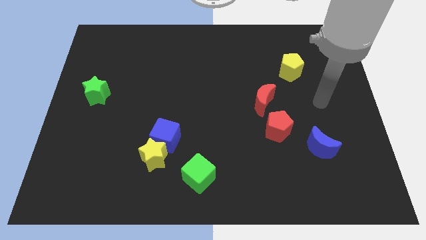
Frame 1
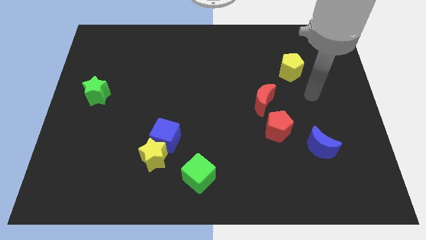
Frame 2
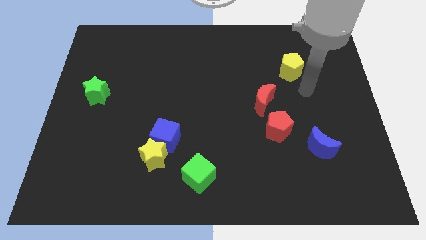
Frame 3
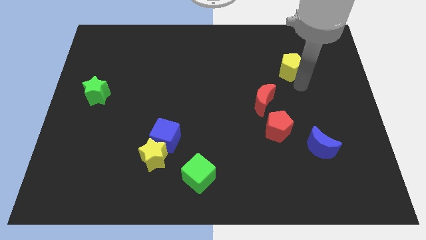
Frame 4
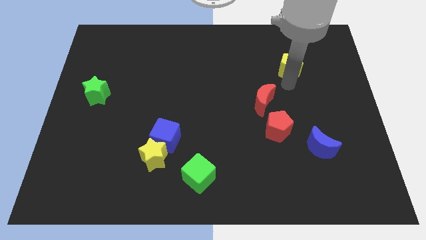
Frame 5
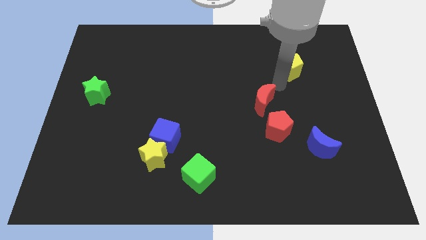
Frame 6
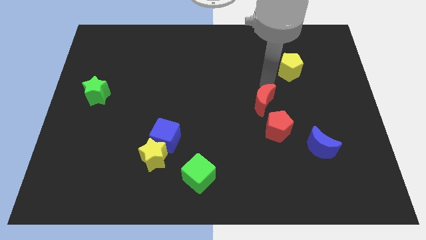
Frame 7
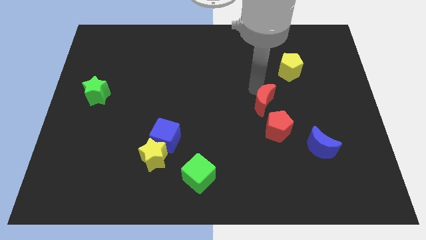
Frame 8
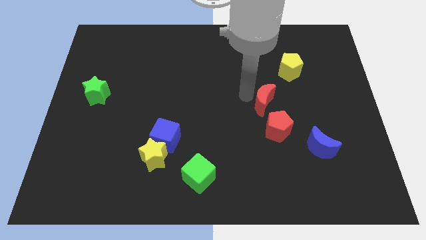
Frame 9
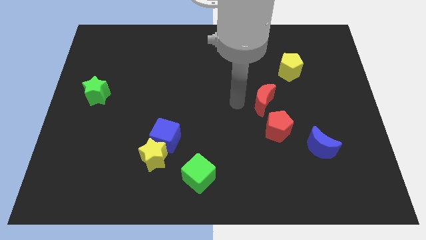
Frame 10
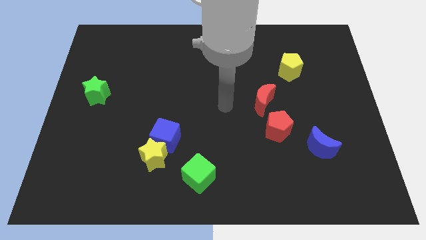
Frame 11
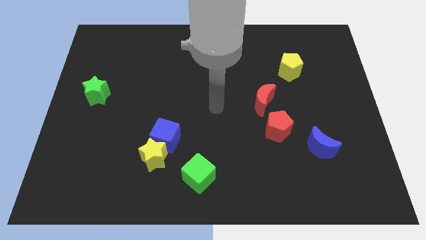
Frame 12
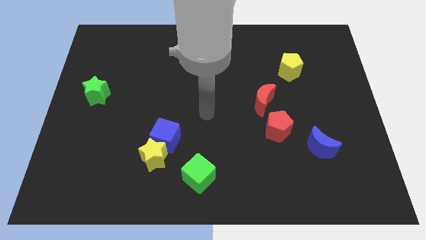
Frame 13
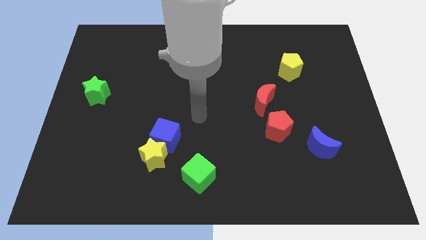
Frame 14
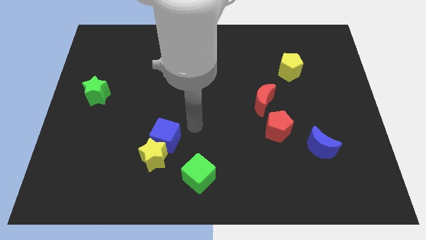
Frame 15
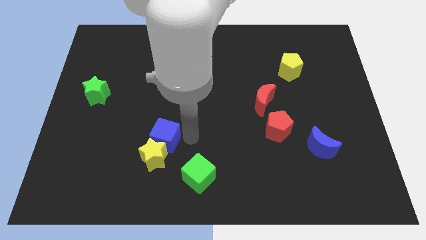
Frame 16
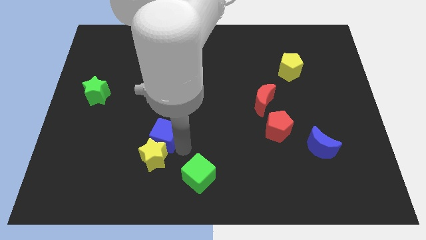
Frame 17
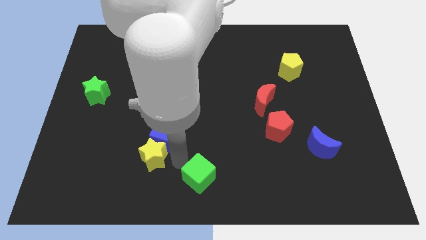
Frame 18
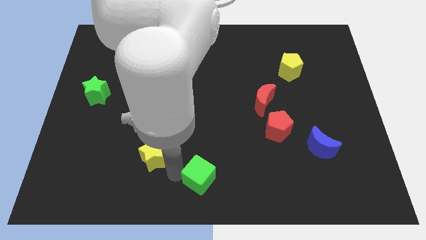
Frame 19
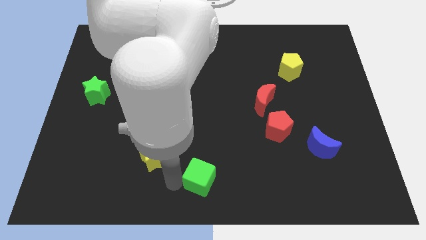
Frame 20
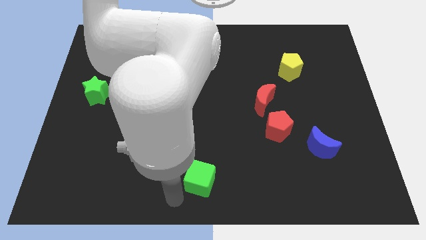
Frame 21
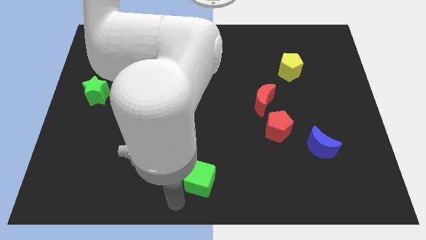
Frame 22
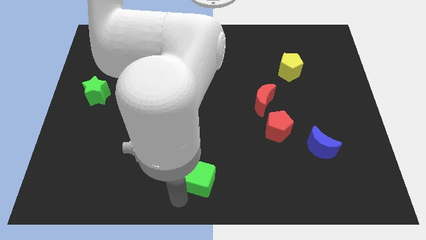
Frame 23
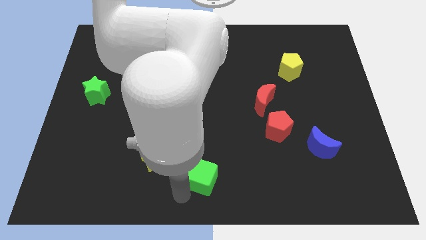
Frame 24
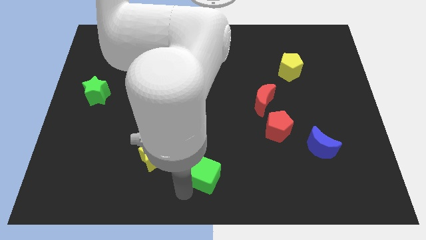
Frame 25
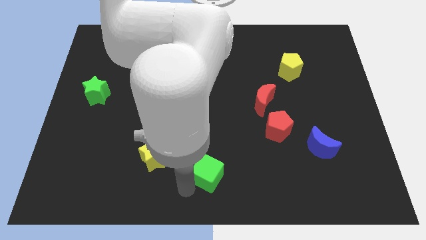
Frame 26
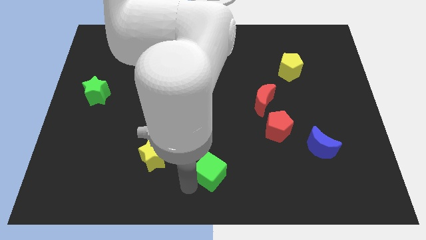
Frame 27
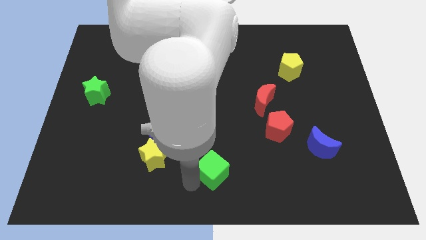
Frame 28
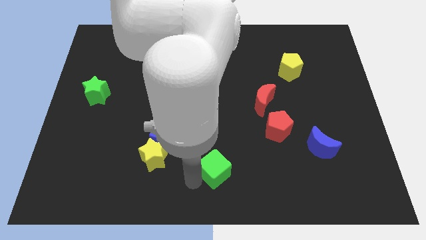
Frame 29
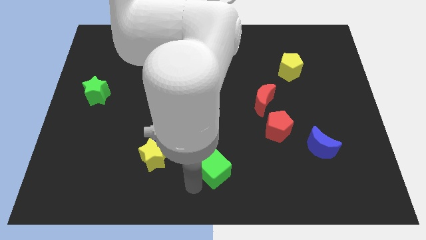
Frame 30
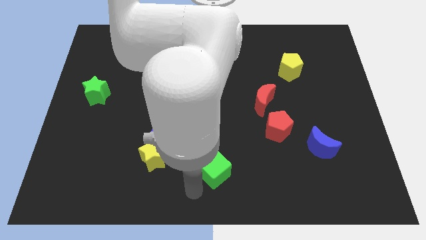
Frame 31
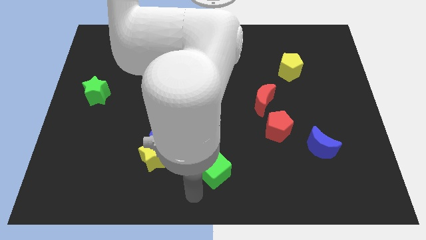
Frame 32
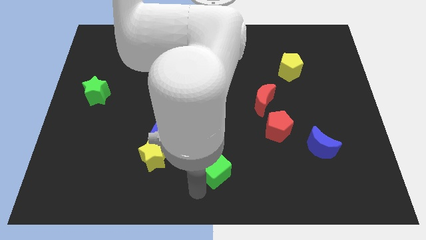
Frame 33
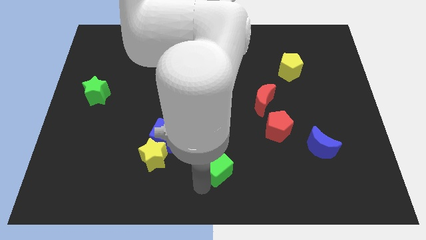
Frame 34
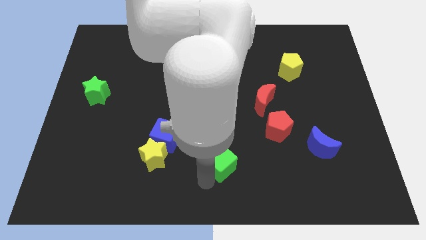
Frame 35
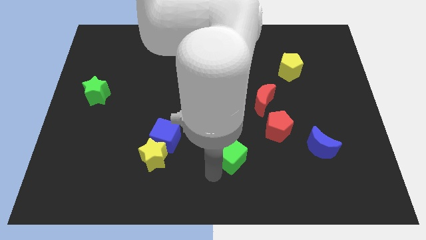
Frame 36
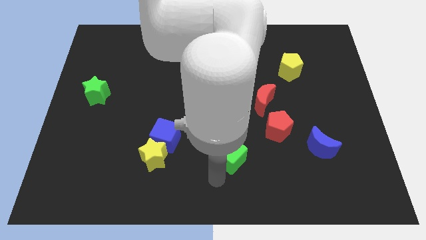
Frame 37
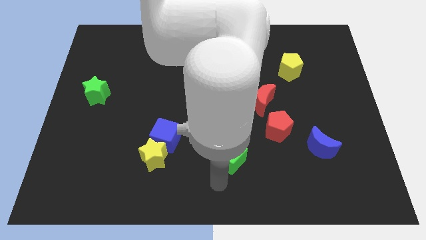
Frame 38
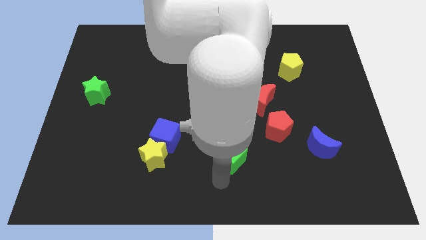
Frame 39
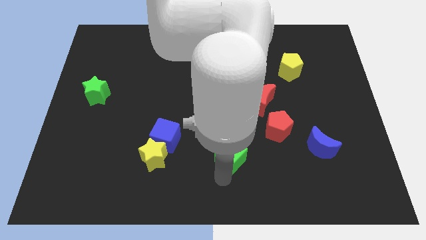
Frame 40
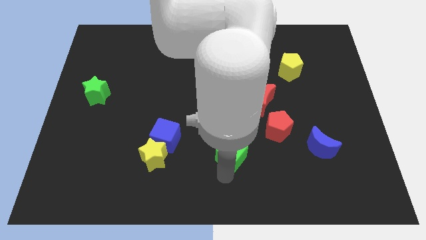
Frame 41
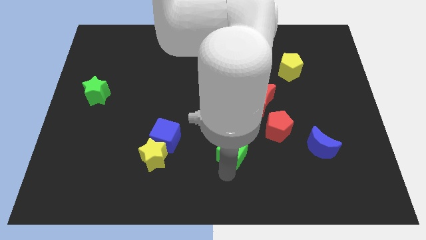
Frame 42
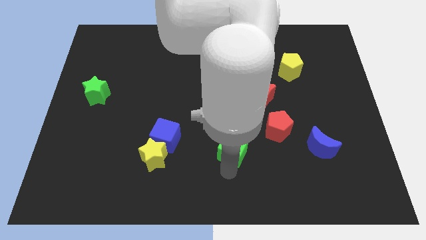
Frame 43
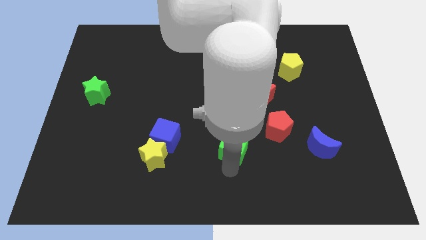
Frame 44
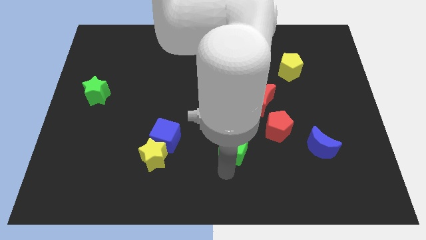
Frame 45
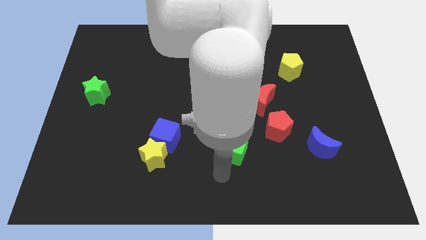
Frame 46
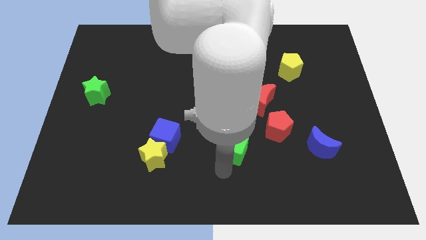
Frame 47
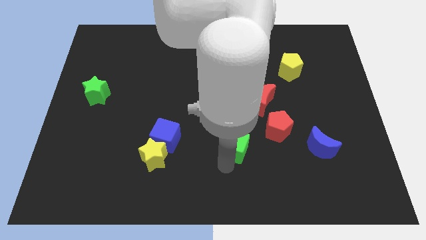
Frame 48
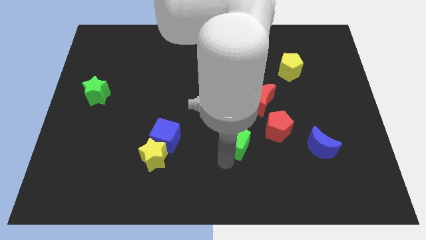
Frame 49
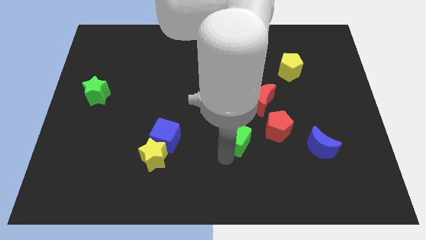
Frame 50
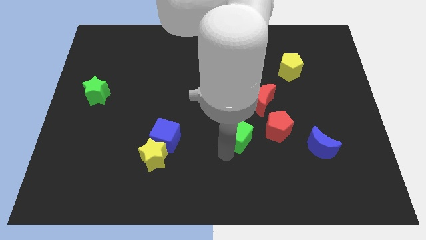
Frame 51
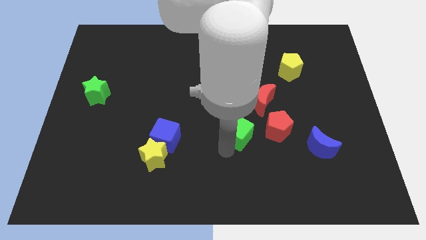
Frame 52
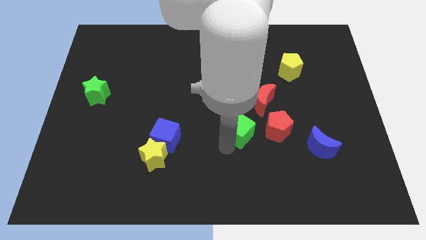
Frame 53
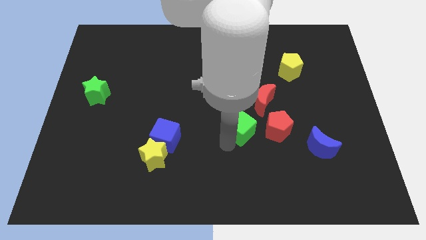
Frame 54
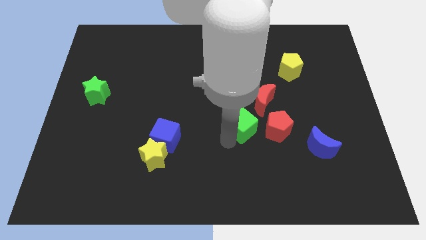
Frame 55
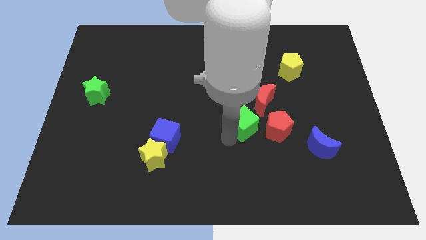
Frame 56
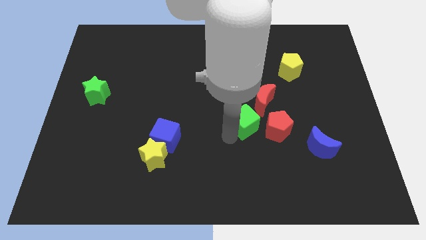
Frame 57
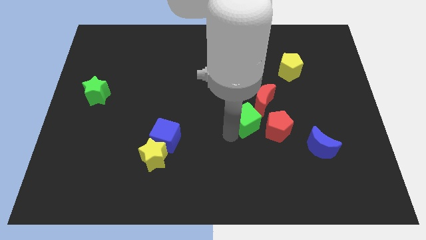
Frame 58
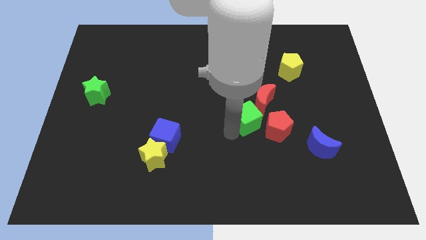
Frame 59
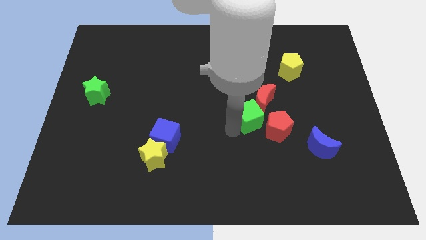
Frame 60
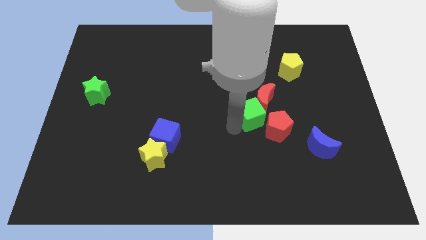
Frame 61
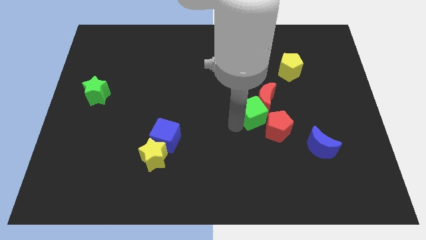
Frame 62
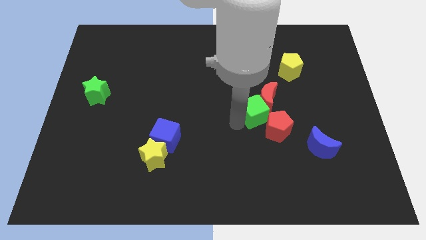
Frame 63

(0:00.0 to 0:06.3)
move the green cube up and then to the right

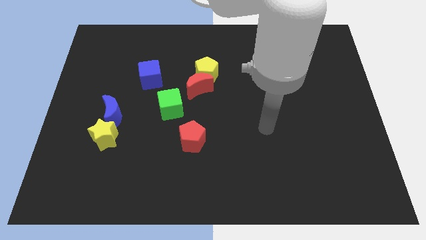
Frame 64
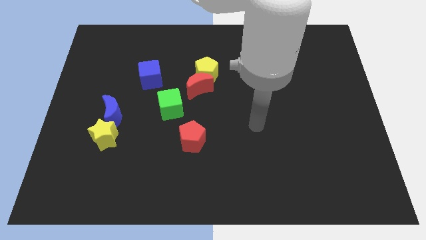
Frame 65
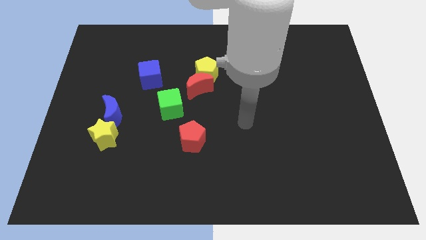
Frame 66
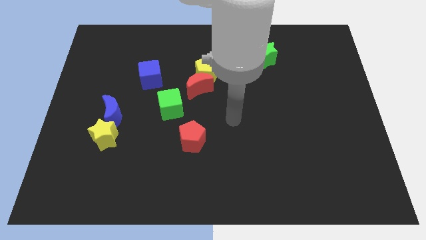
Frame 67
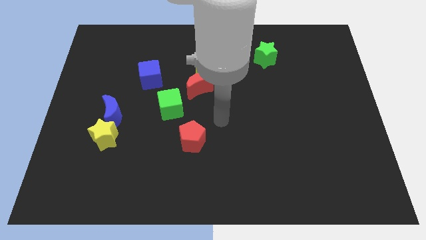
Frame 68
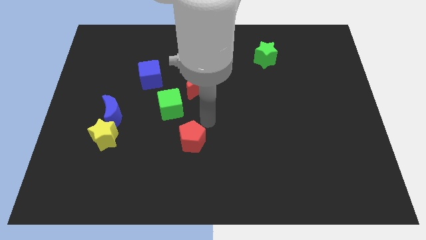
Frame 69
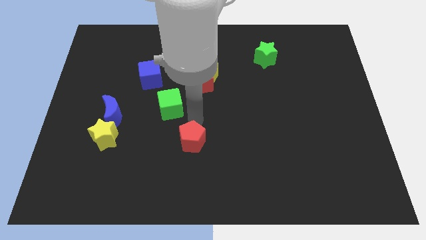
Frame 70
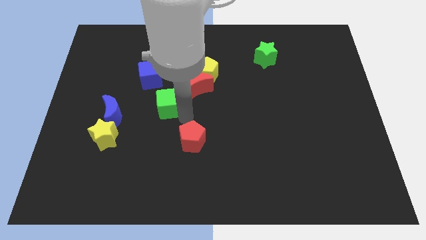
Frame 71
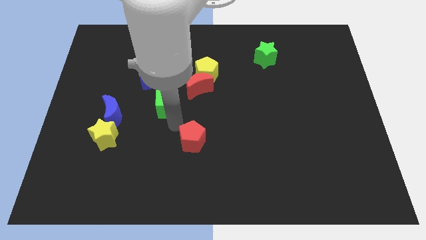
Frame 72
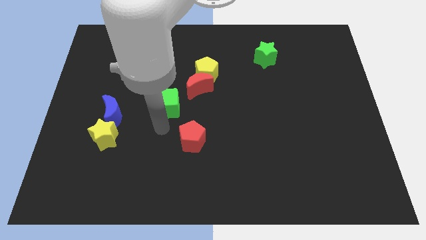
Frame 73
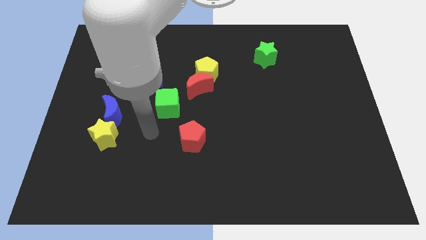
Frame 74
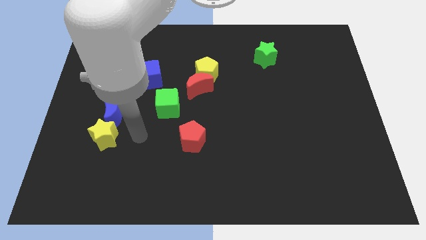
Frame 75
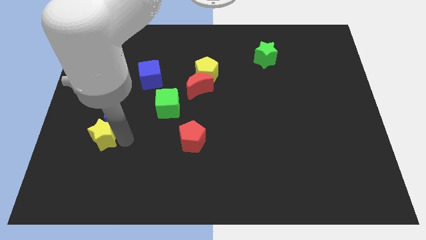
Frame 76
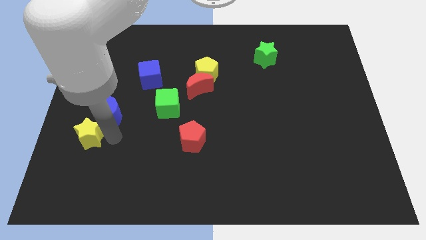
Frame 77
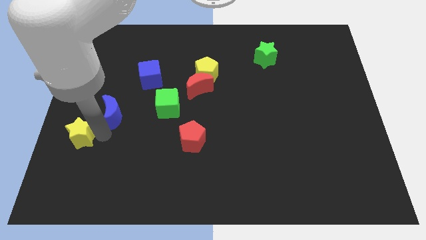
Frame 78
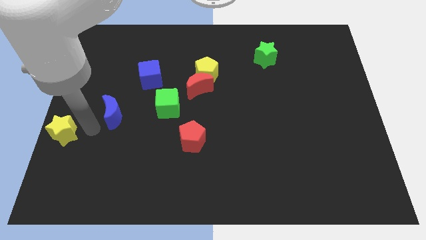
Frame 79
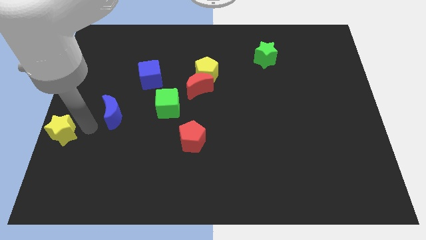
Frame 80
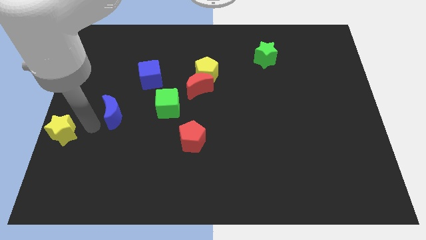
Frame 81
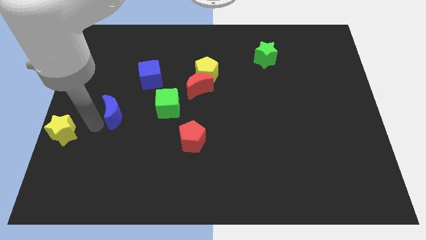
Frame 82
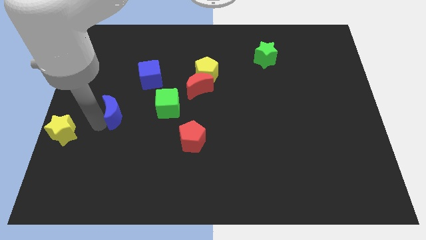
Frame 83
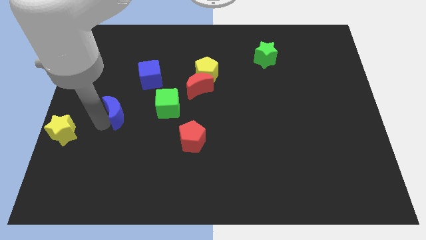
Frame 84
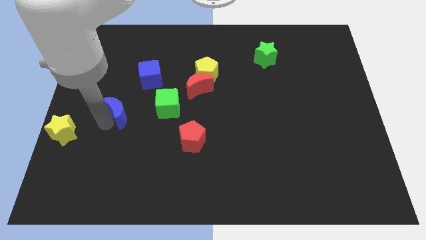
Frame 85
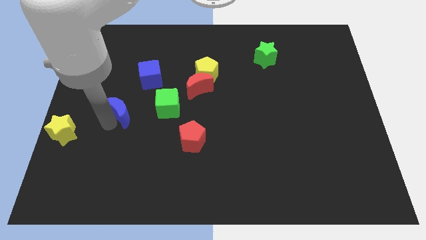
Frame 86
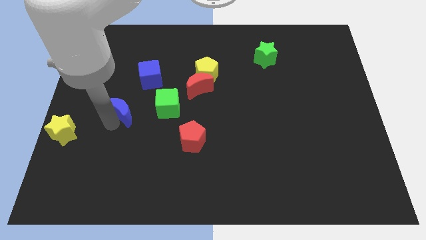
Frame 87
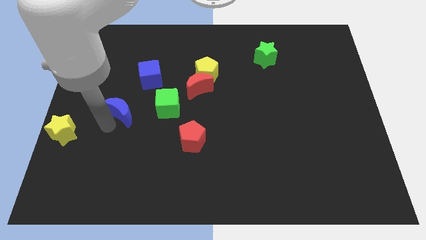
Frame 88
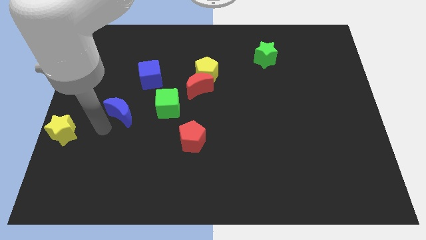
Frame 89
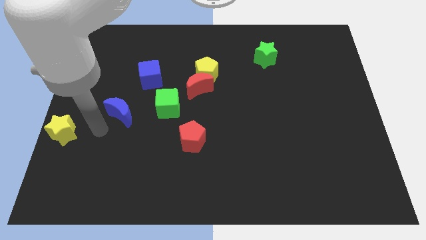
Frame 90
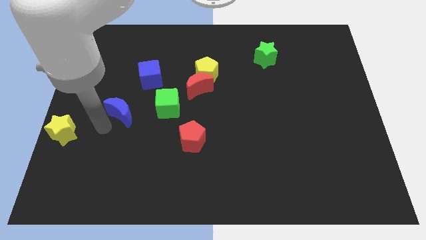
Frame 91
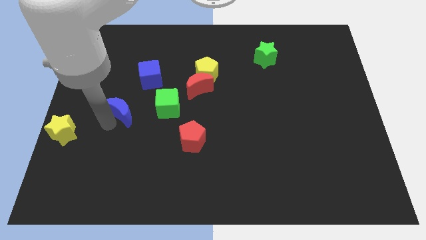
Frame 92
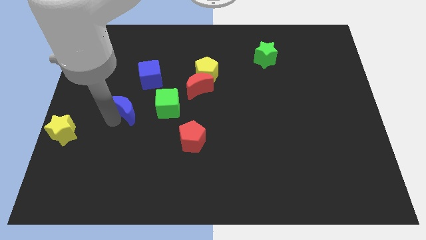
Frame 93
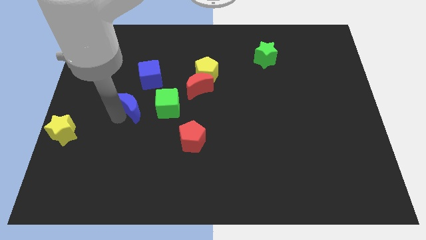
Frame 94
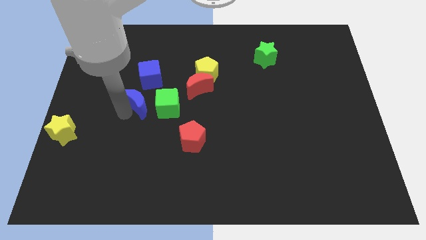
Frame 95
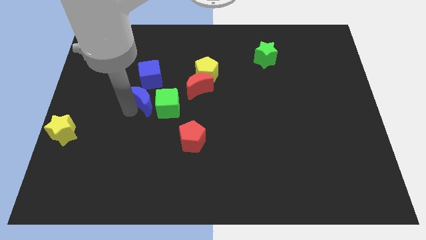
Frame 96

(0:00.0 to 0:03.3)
push the blue moon upwards and to the right a little
